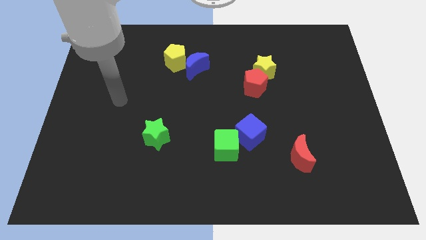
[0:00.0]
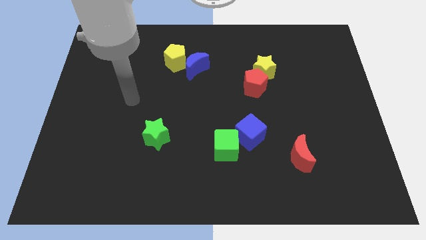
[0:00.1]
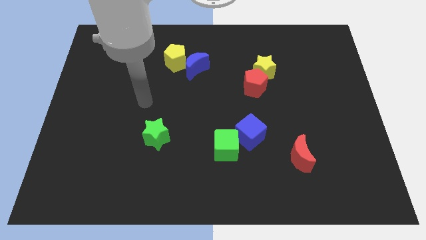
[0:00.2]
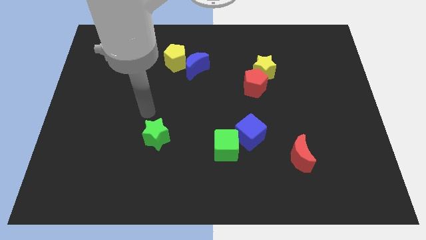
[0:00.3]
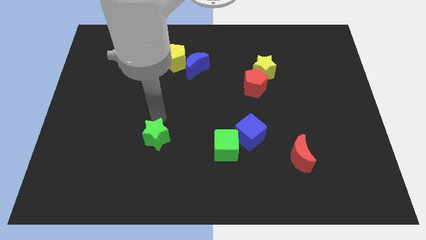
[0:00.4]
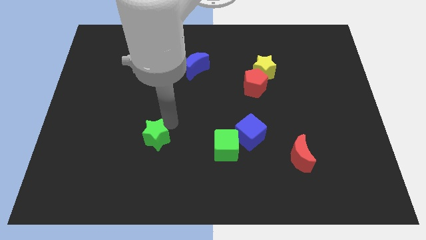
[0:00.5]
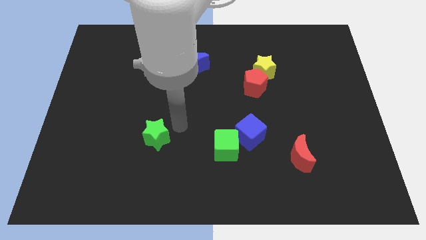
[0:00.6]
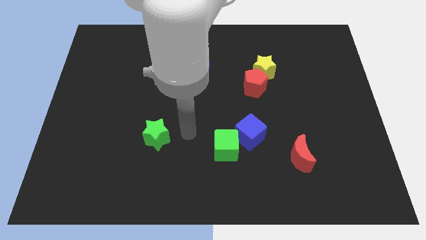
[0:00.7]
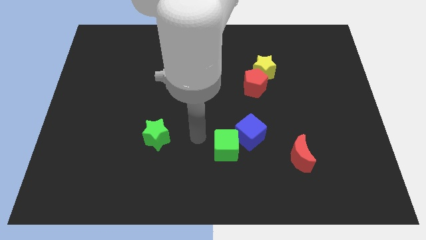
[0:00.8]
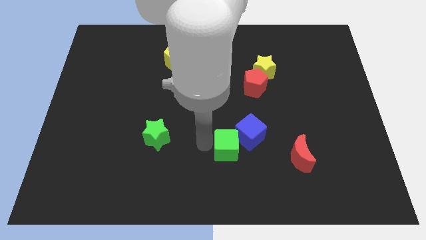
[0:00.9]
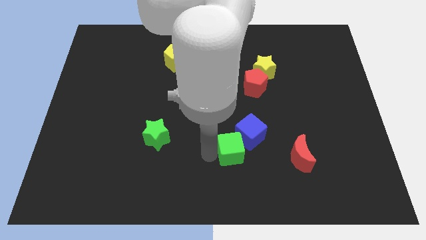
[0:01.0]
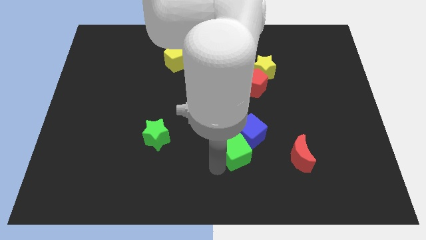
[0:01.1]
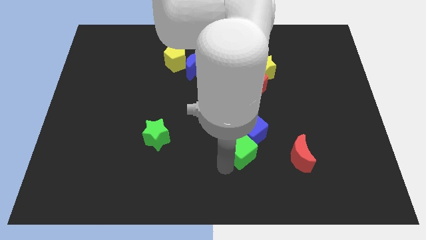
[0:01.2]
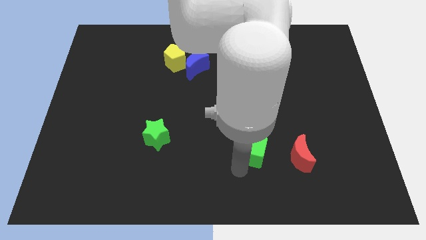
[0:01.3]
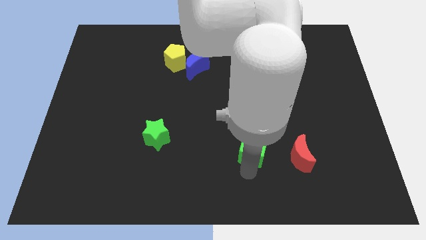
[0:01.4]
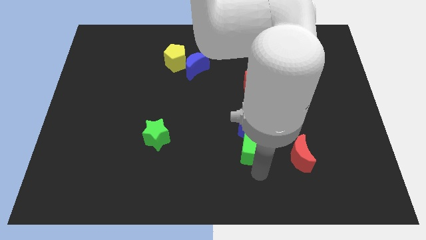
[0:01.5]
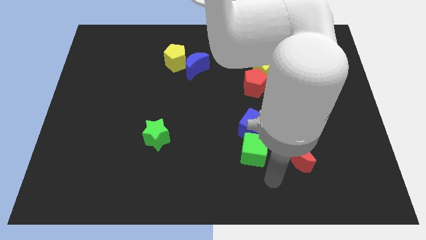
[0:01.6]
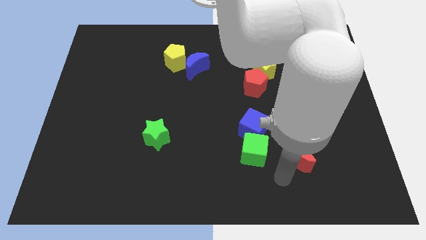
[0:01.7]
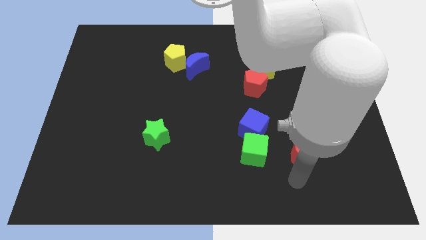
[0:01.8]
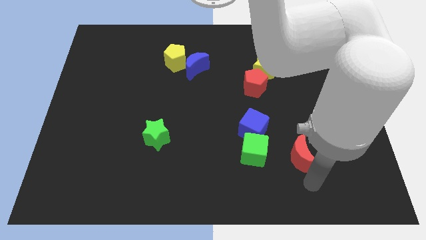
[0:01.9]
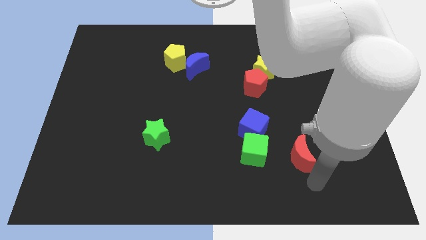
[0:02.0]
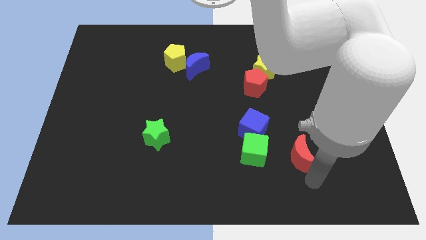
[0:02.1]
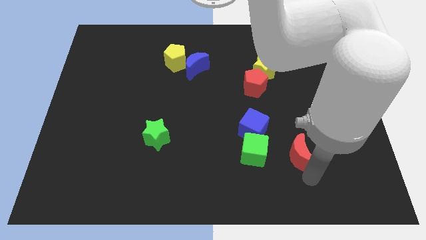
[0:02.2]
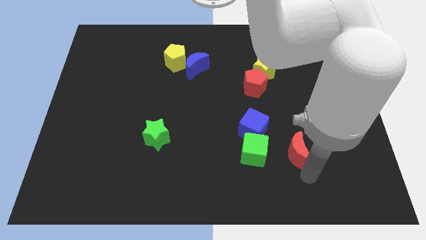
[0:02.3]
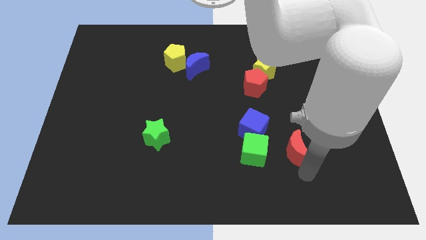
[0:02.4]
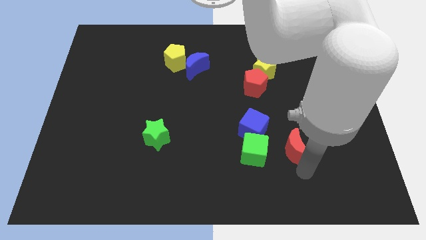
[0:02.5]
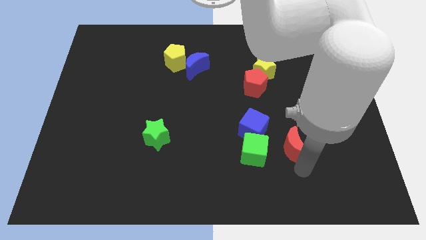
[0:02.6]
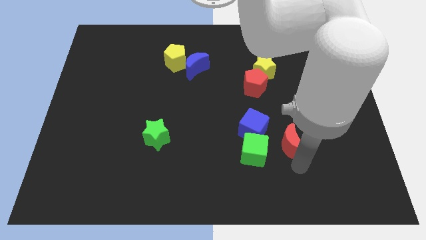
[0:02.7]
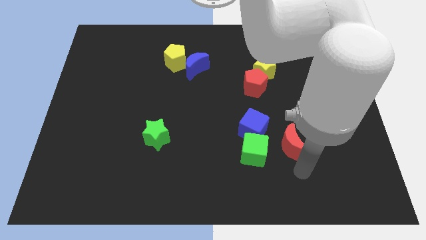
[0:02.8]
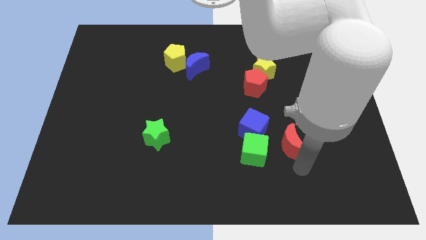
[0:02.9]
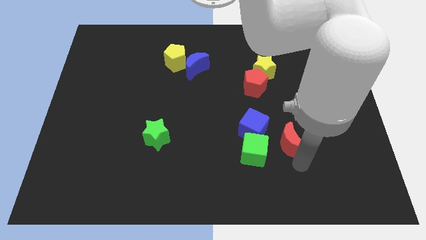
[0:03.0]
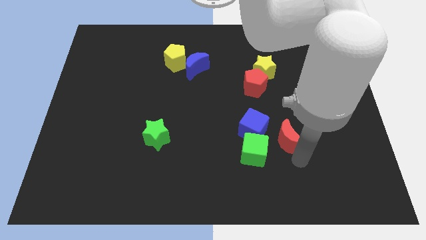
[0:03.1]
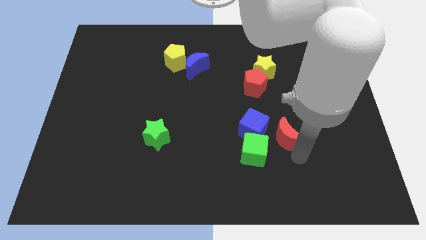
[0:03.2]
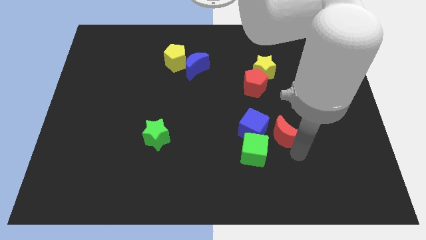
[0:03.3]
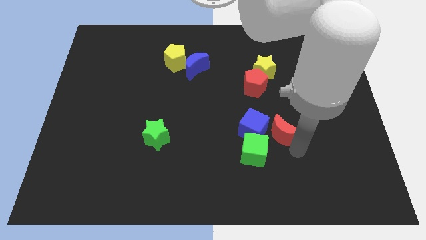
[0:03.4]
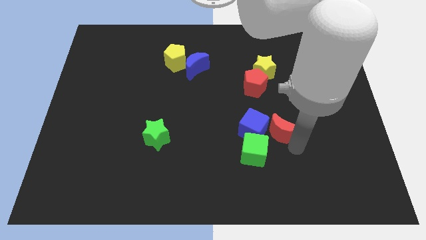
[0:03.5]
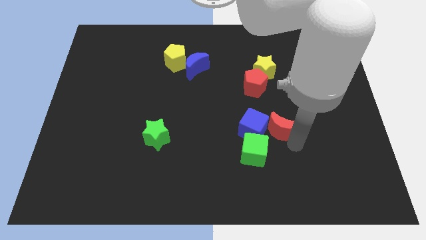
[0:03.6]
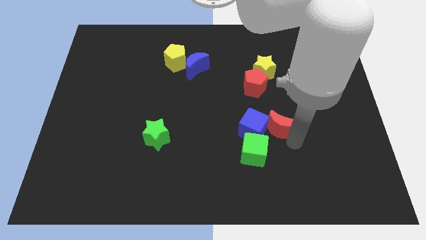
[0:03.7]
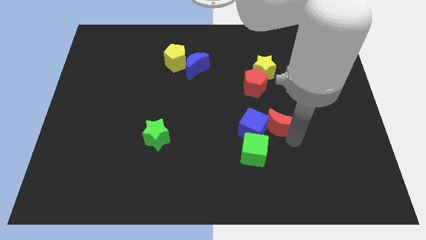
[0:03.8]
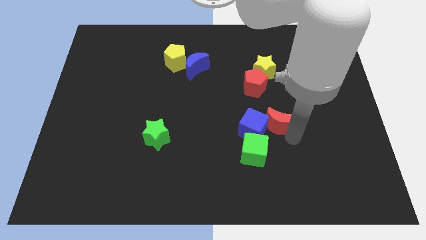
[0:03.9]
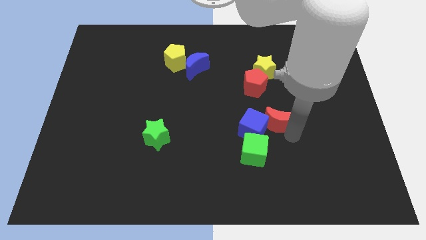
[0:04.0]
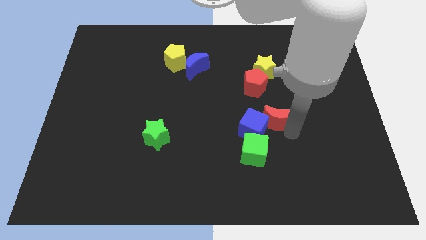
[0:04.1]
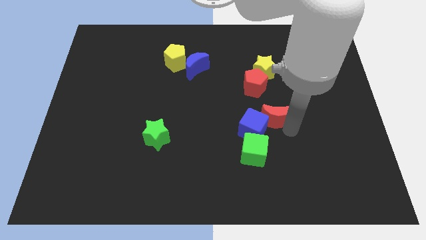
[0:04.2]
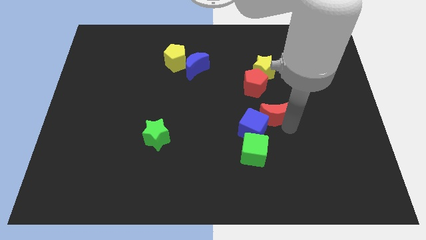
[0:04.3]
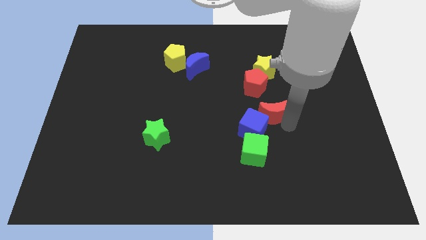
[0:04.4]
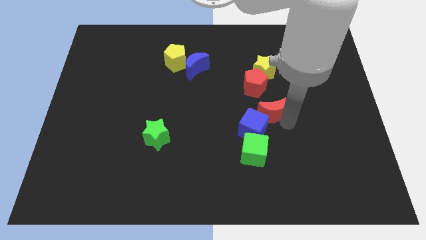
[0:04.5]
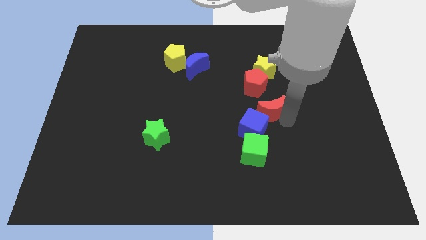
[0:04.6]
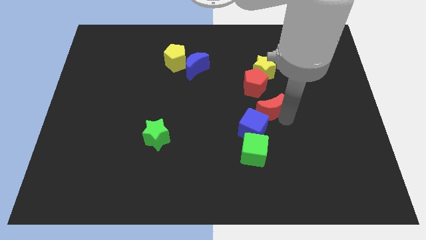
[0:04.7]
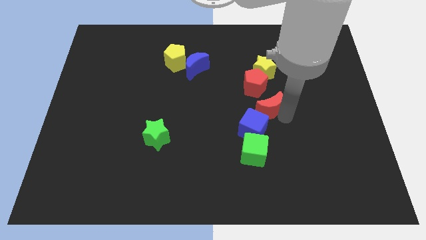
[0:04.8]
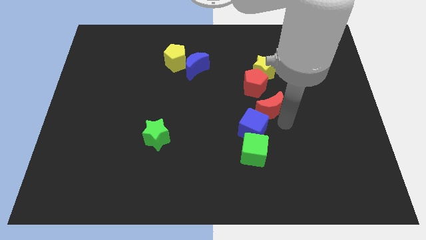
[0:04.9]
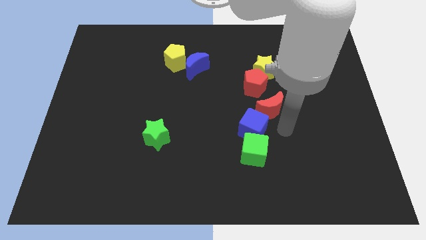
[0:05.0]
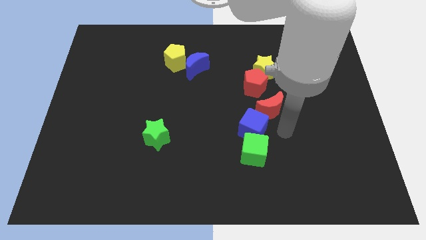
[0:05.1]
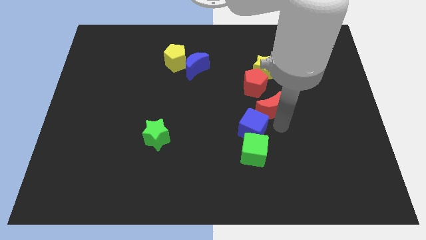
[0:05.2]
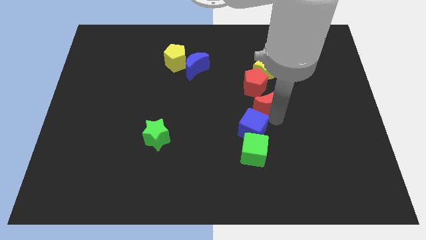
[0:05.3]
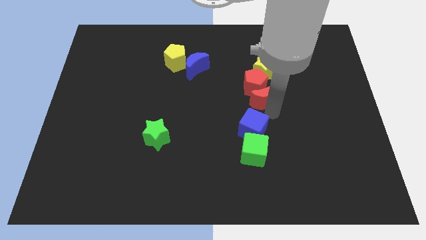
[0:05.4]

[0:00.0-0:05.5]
put the red moon close to the red pentagon

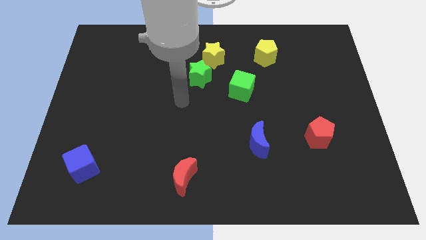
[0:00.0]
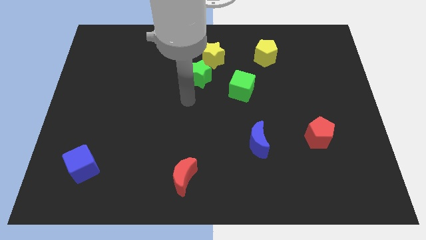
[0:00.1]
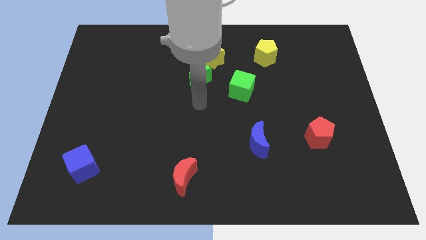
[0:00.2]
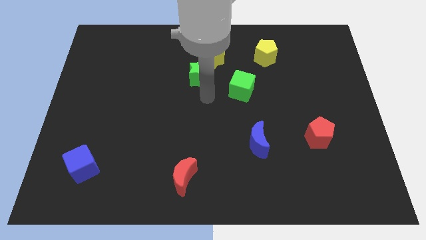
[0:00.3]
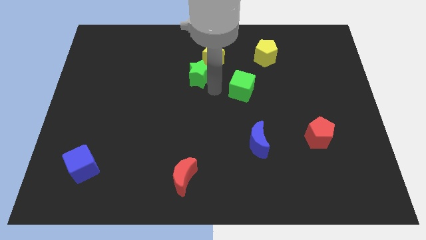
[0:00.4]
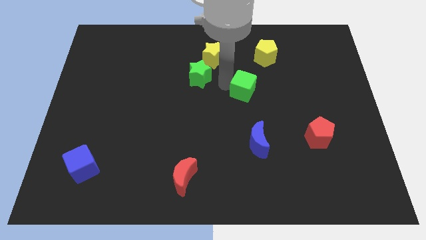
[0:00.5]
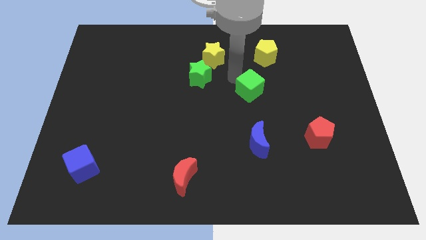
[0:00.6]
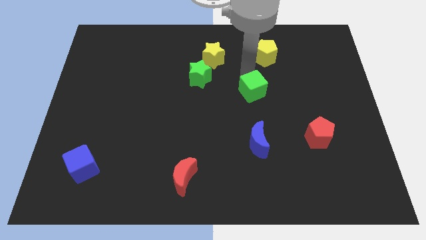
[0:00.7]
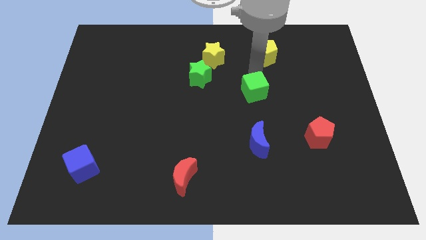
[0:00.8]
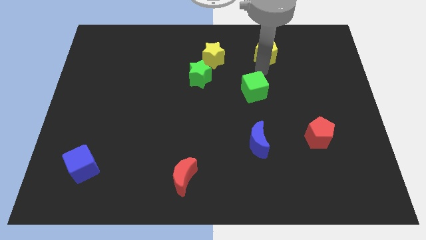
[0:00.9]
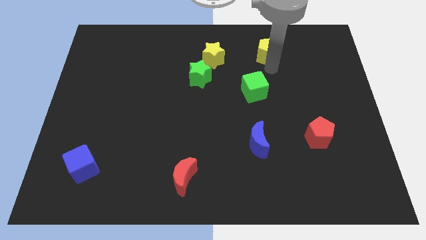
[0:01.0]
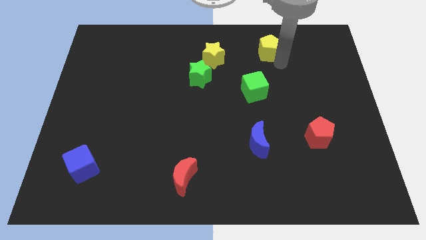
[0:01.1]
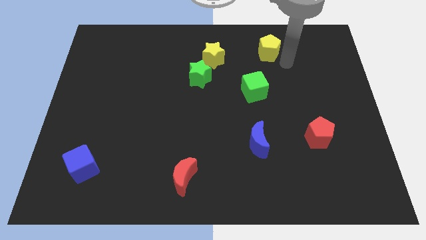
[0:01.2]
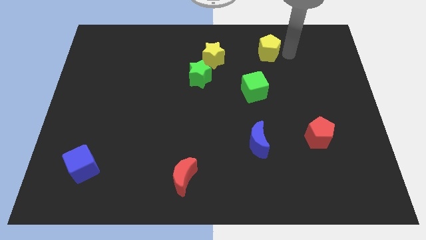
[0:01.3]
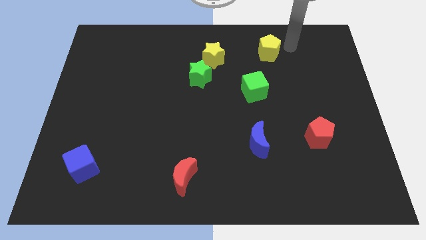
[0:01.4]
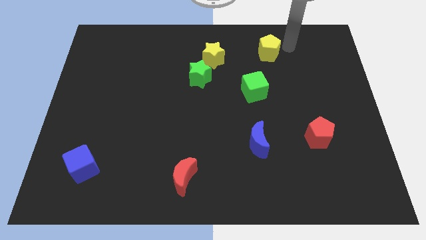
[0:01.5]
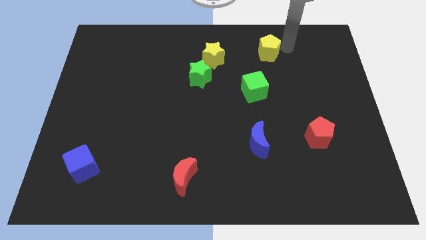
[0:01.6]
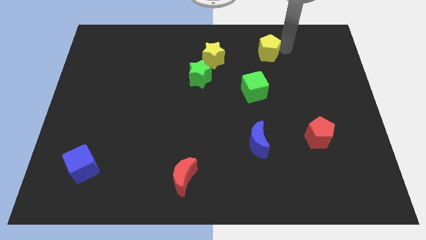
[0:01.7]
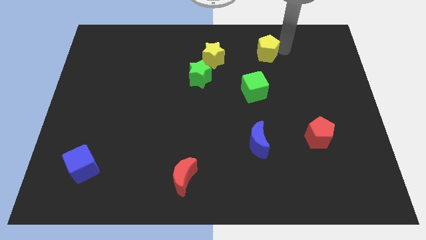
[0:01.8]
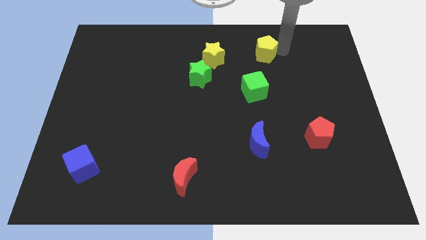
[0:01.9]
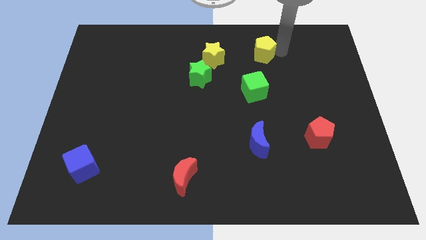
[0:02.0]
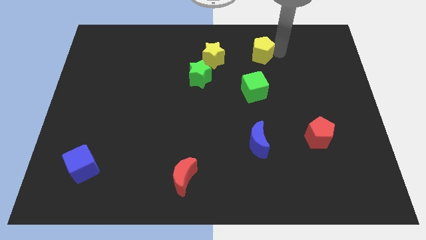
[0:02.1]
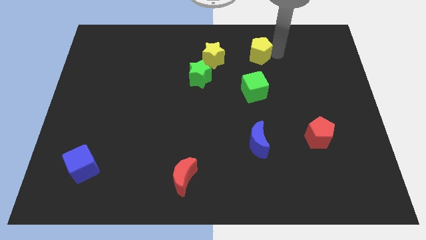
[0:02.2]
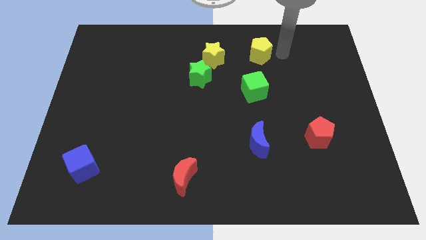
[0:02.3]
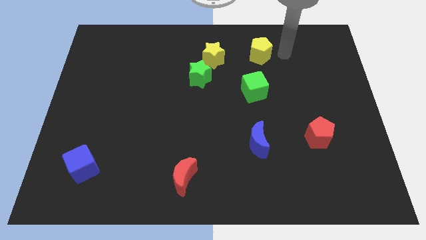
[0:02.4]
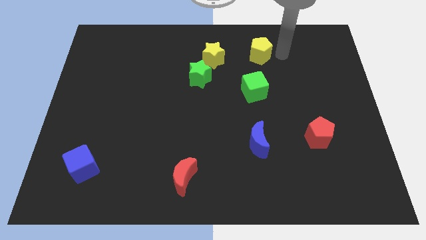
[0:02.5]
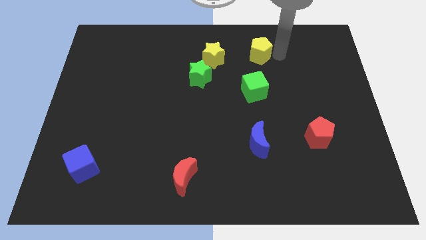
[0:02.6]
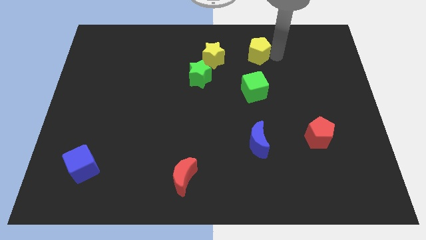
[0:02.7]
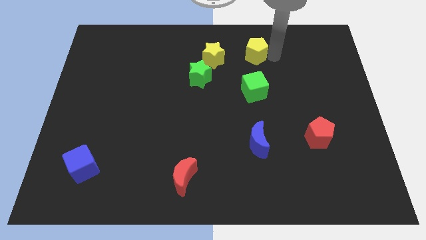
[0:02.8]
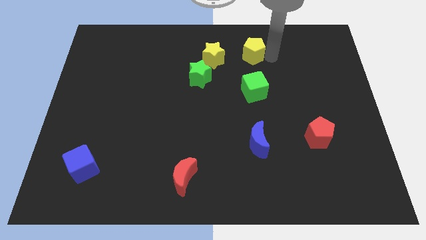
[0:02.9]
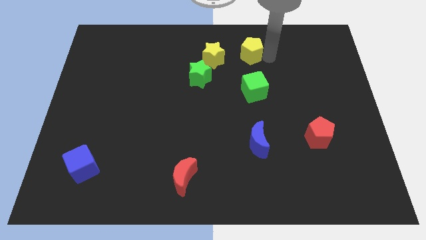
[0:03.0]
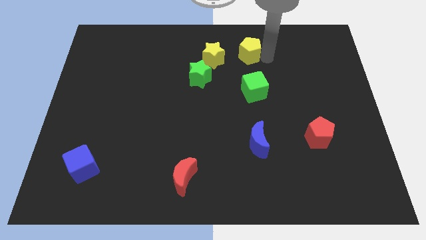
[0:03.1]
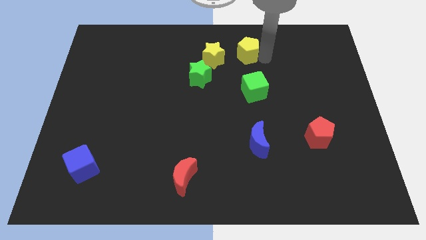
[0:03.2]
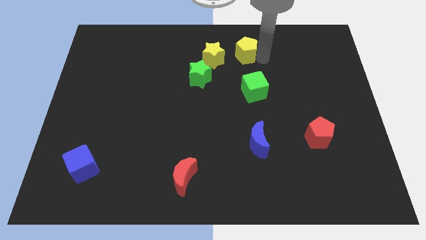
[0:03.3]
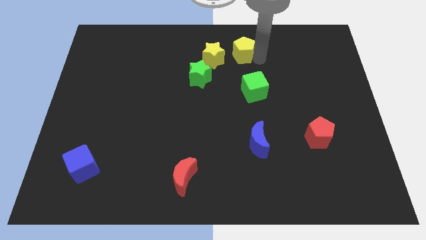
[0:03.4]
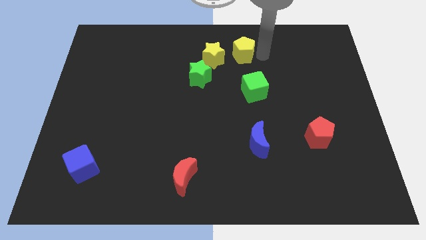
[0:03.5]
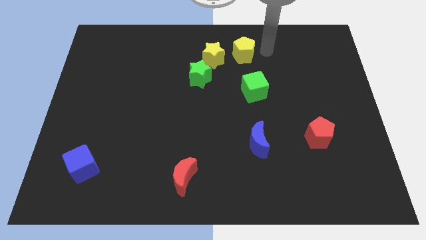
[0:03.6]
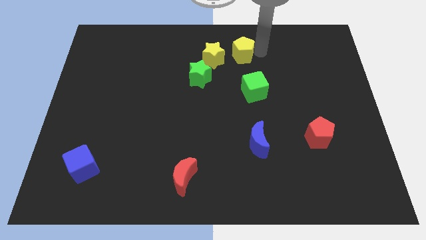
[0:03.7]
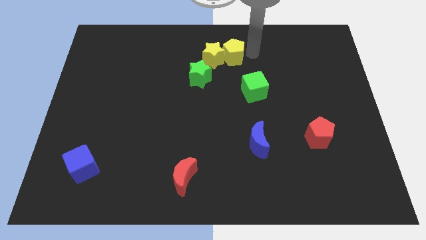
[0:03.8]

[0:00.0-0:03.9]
slide the yellow pentagon close to the yellow star
